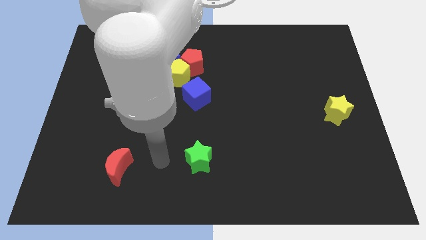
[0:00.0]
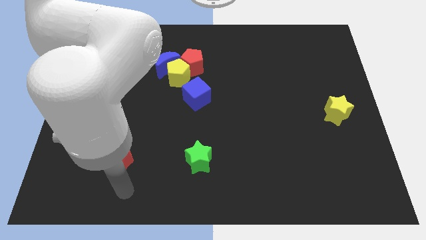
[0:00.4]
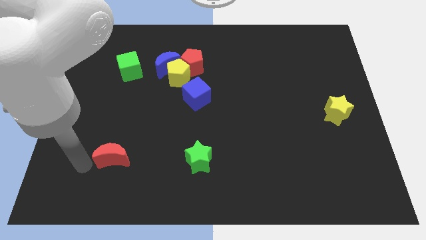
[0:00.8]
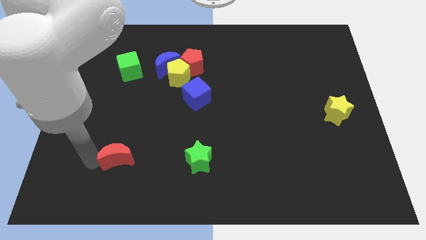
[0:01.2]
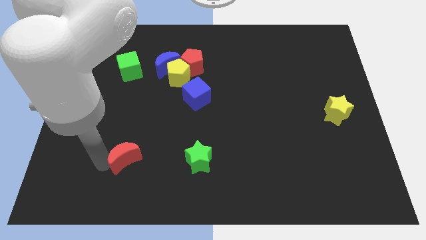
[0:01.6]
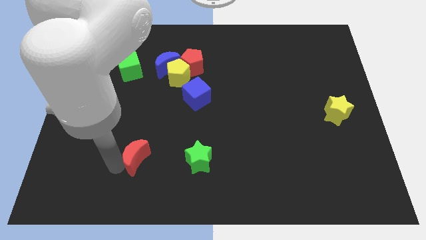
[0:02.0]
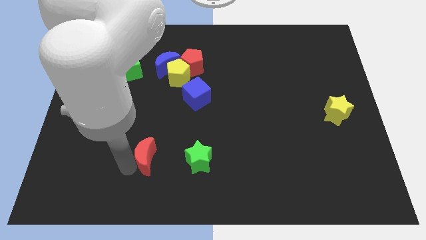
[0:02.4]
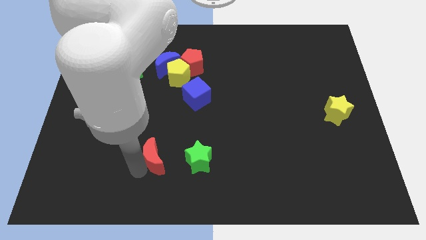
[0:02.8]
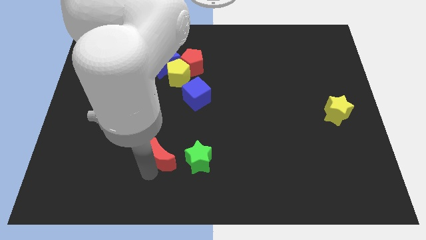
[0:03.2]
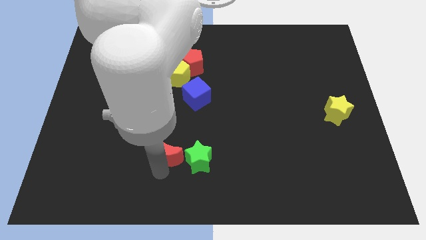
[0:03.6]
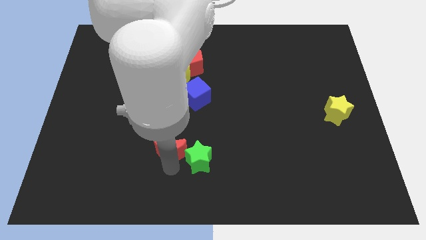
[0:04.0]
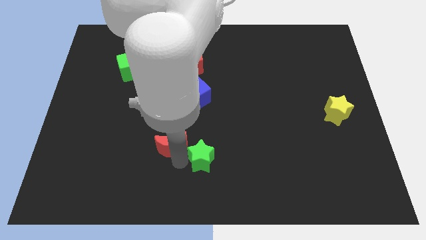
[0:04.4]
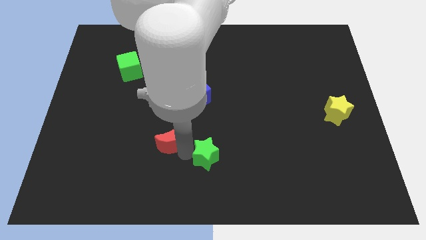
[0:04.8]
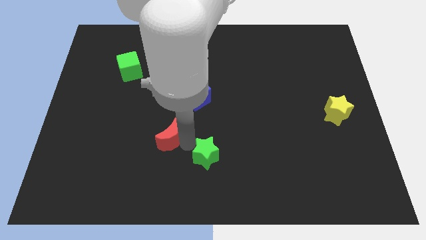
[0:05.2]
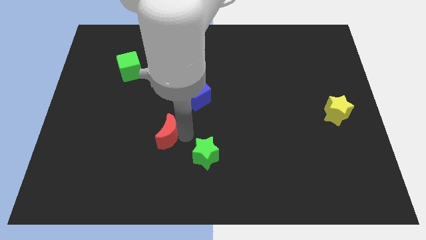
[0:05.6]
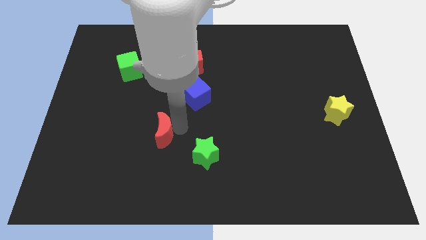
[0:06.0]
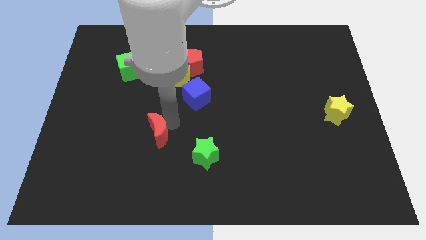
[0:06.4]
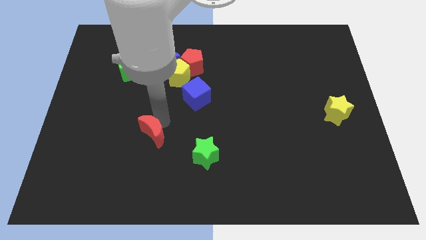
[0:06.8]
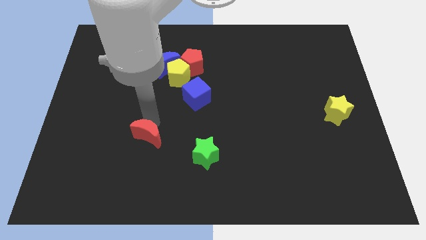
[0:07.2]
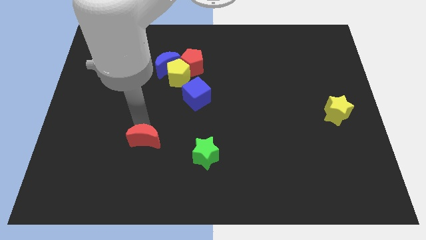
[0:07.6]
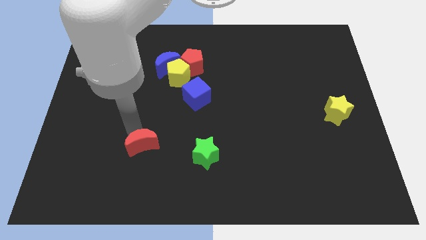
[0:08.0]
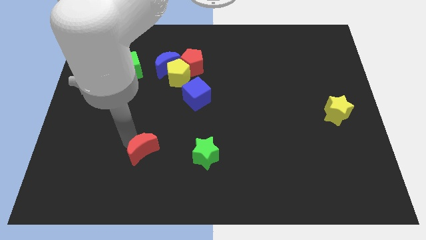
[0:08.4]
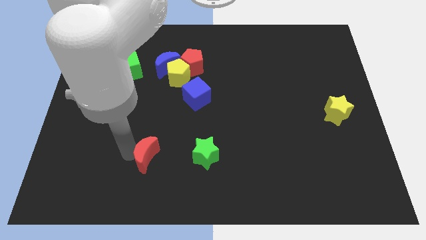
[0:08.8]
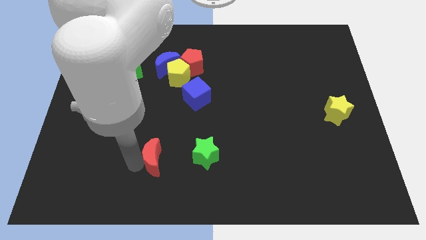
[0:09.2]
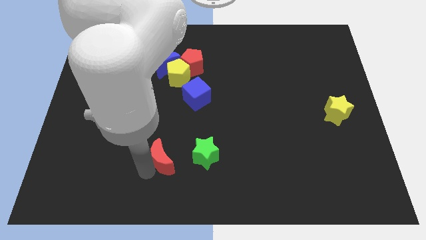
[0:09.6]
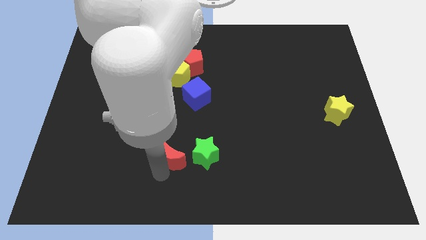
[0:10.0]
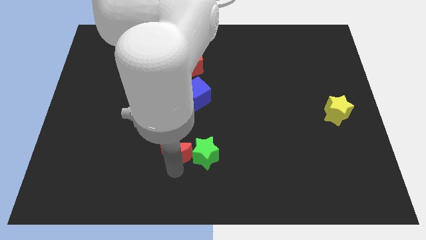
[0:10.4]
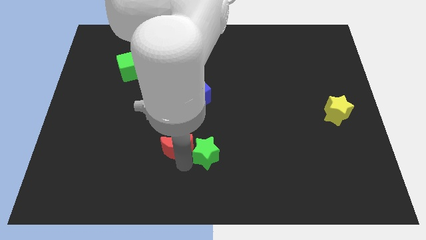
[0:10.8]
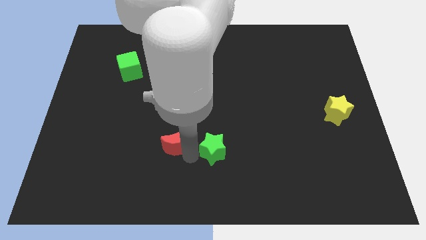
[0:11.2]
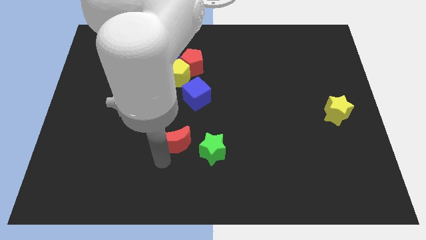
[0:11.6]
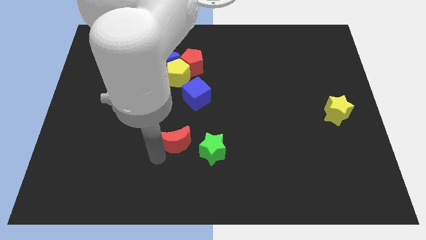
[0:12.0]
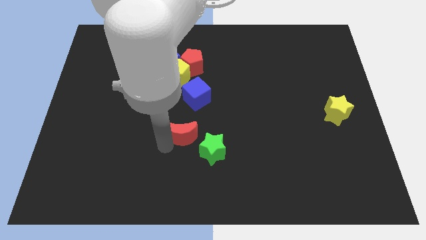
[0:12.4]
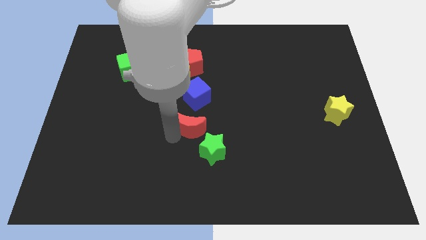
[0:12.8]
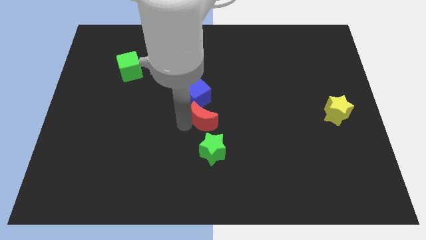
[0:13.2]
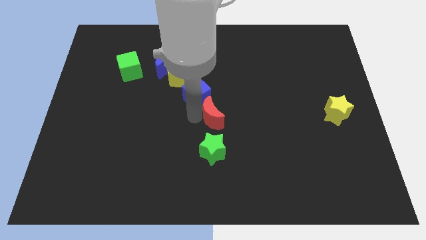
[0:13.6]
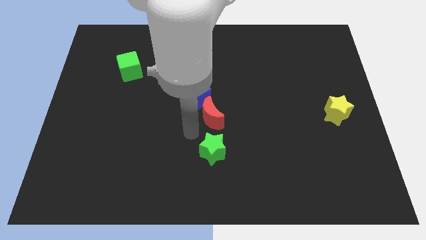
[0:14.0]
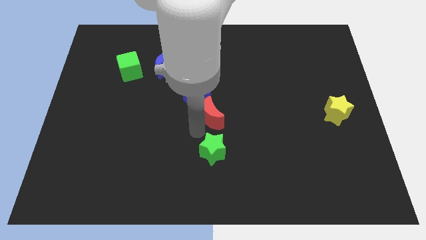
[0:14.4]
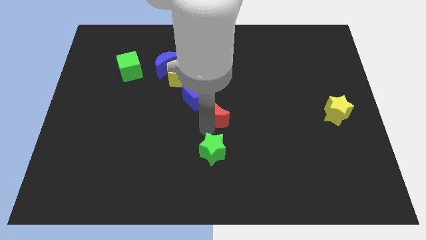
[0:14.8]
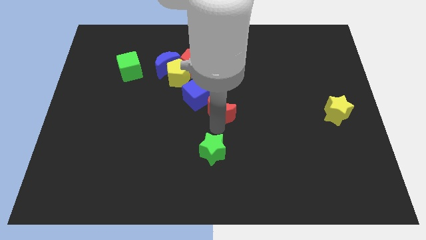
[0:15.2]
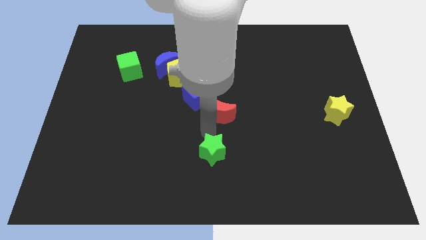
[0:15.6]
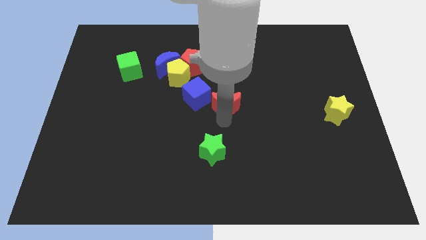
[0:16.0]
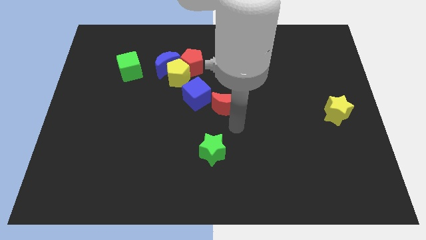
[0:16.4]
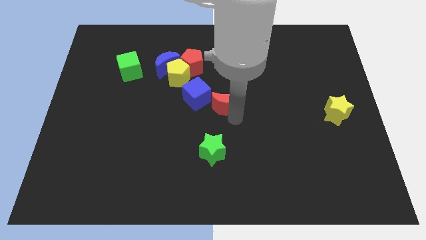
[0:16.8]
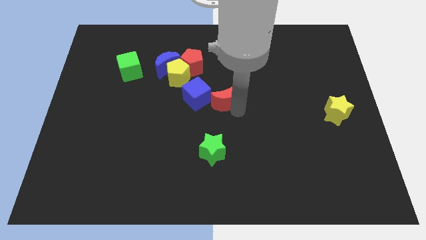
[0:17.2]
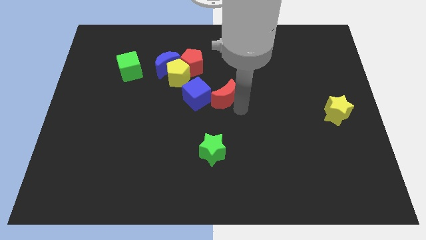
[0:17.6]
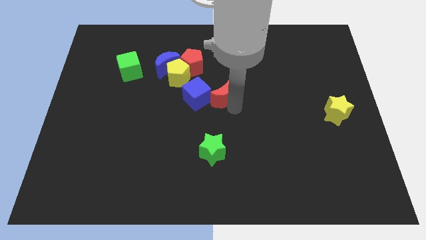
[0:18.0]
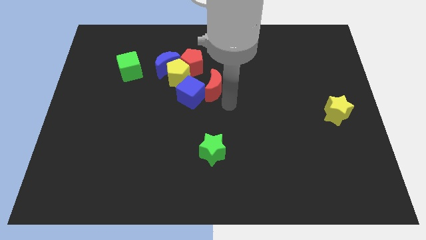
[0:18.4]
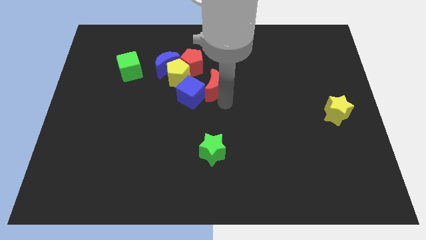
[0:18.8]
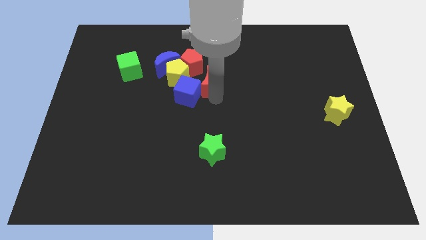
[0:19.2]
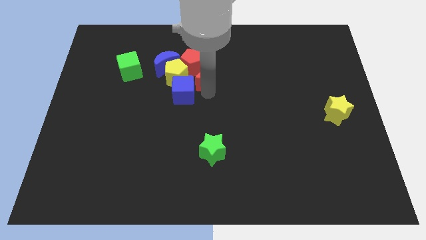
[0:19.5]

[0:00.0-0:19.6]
push the red moon next to the red pentagon

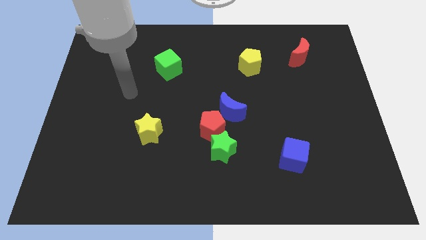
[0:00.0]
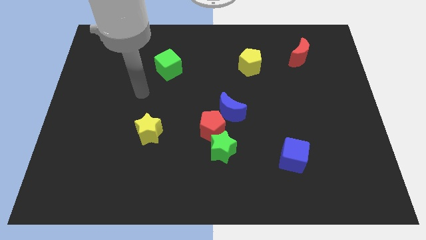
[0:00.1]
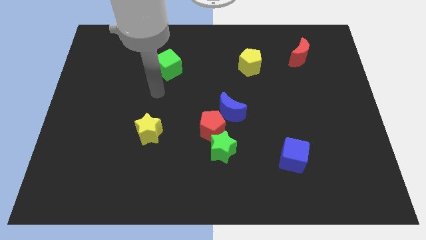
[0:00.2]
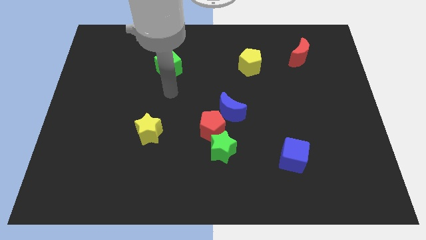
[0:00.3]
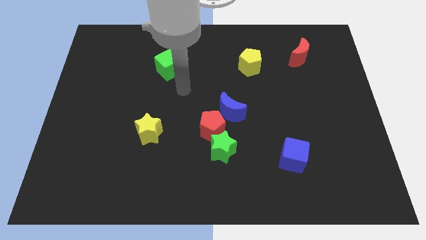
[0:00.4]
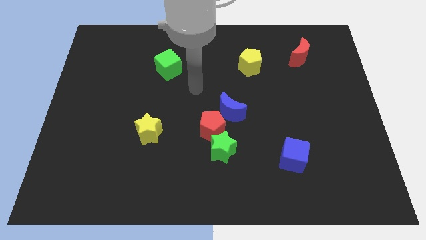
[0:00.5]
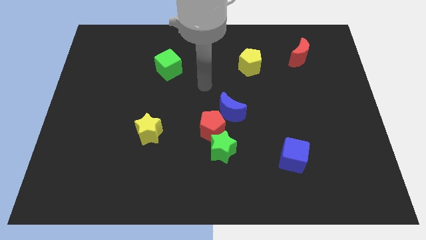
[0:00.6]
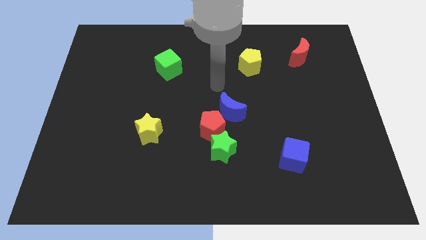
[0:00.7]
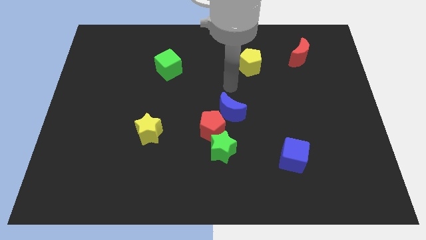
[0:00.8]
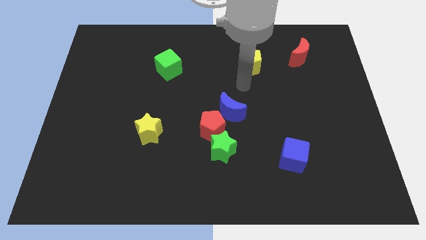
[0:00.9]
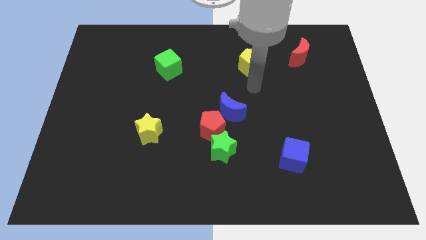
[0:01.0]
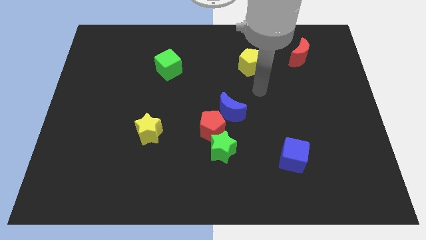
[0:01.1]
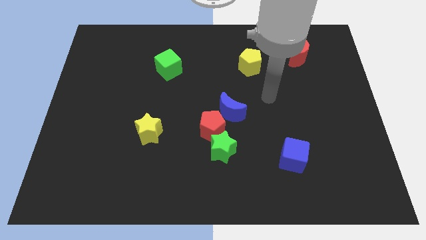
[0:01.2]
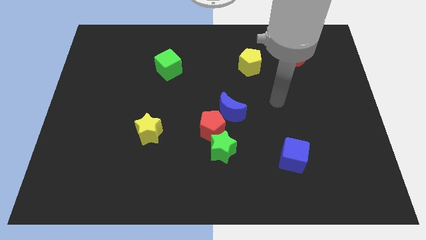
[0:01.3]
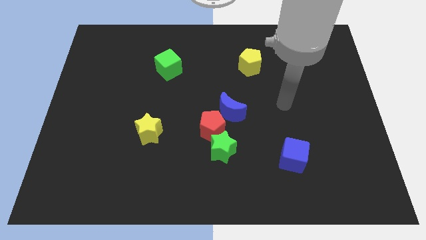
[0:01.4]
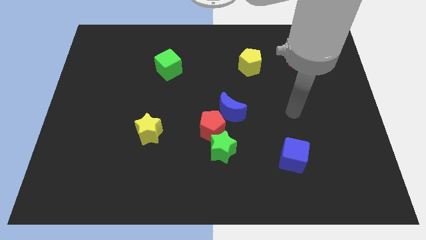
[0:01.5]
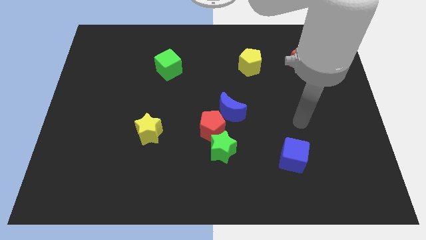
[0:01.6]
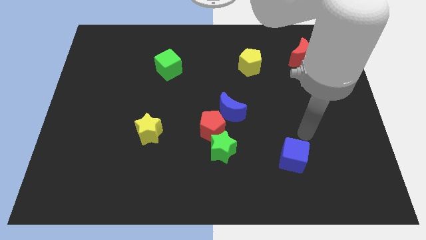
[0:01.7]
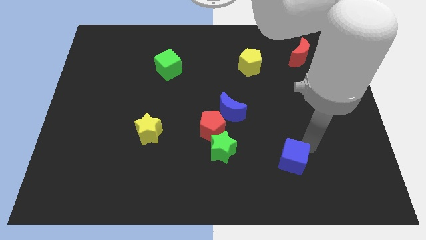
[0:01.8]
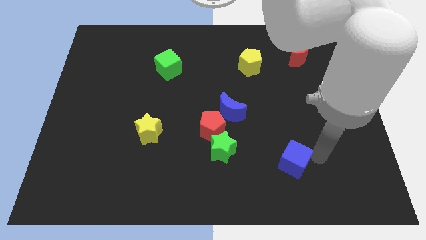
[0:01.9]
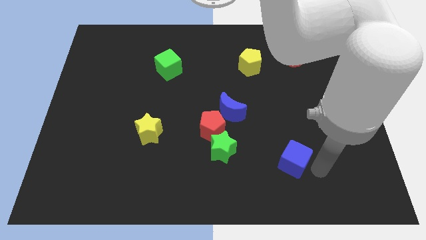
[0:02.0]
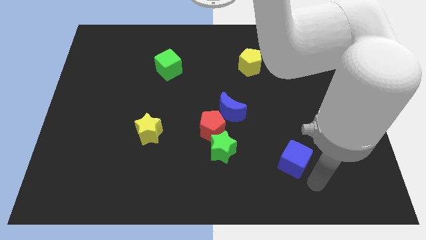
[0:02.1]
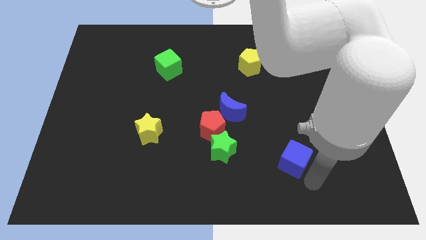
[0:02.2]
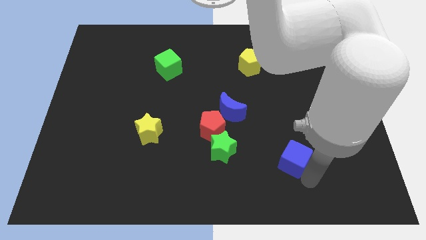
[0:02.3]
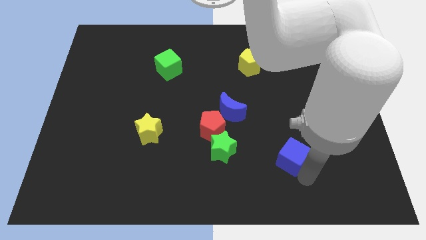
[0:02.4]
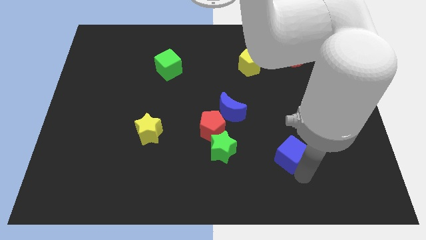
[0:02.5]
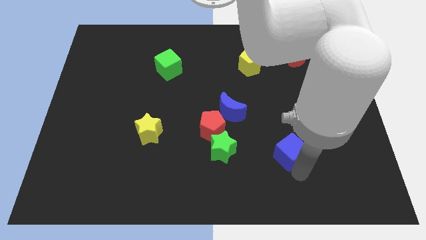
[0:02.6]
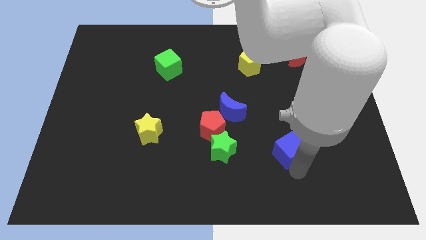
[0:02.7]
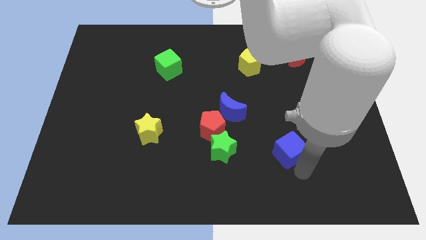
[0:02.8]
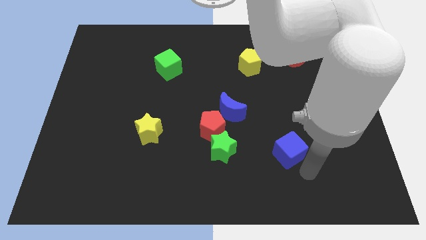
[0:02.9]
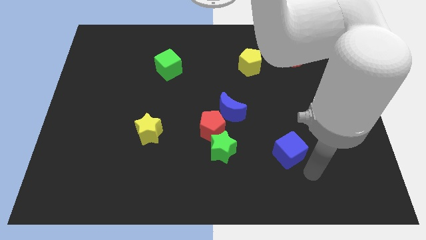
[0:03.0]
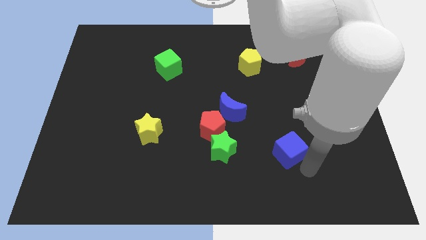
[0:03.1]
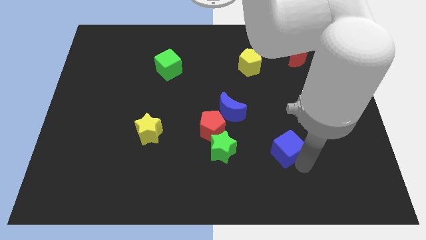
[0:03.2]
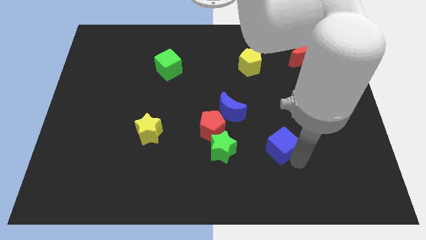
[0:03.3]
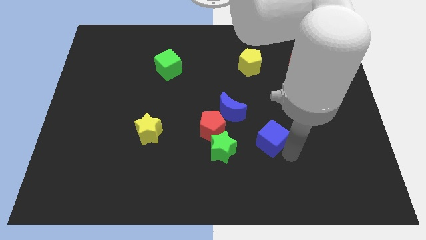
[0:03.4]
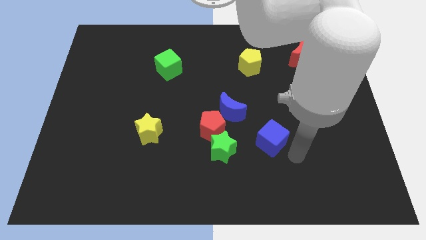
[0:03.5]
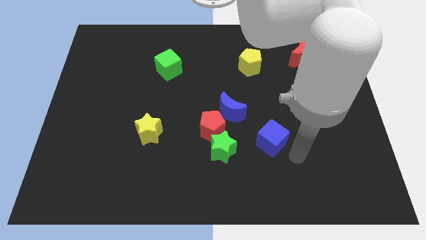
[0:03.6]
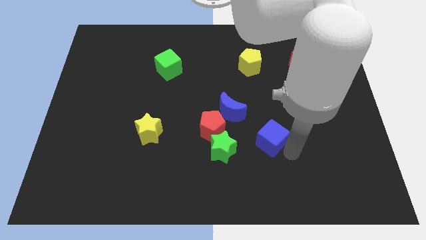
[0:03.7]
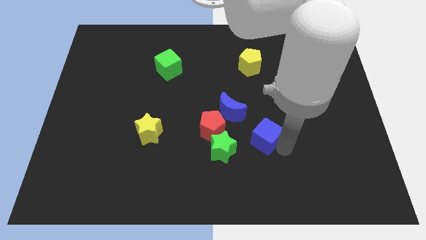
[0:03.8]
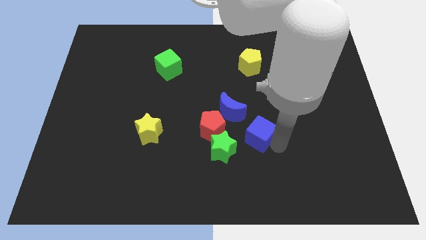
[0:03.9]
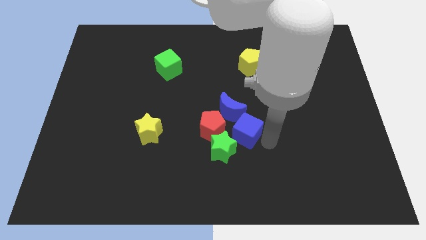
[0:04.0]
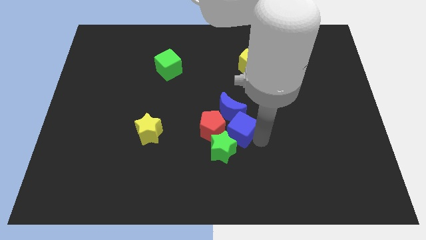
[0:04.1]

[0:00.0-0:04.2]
move the blue cube to the blue moon
